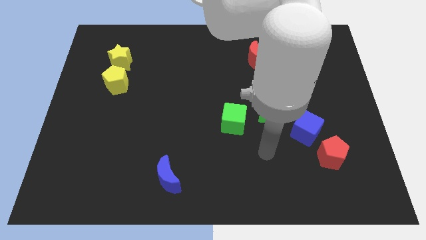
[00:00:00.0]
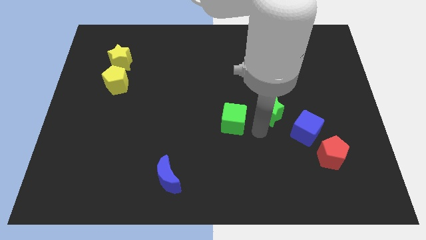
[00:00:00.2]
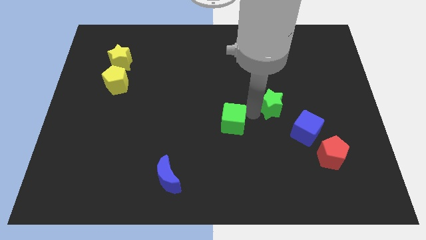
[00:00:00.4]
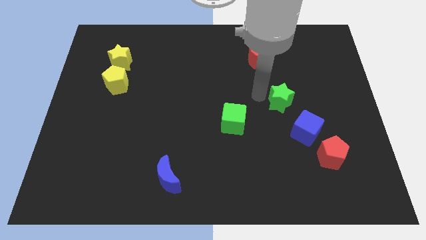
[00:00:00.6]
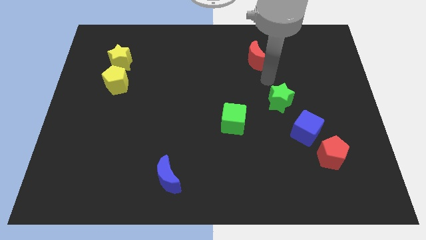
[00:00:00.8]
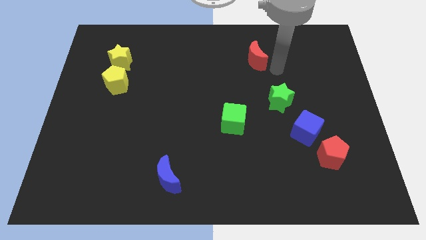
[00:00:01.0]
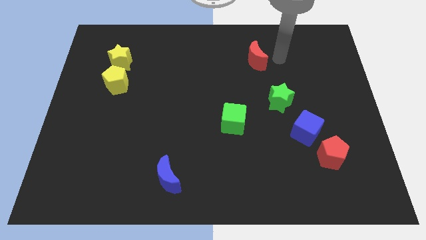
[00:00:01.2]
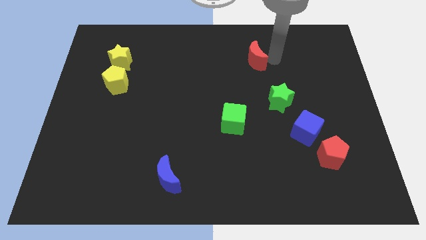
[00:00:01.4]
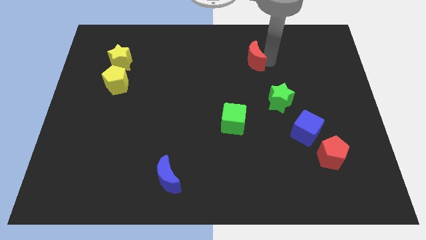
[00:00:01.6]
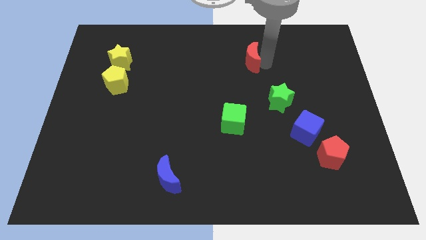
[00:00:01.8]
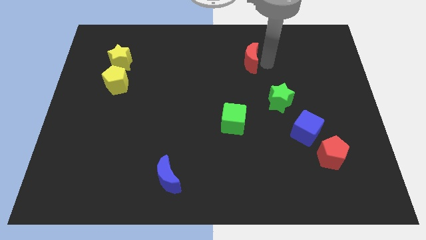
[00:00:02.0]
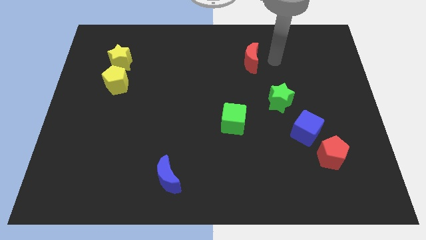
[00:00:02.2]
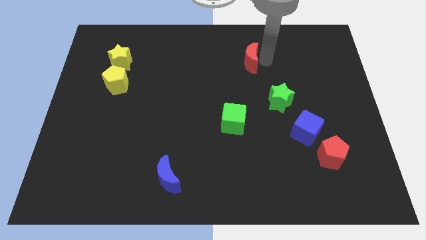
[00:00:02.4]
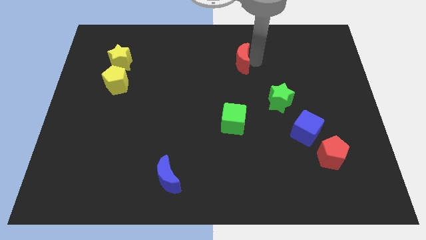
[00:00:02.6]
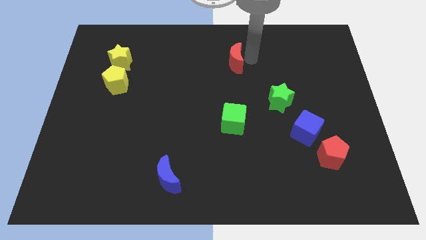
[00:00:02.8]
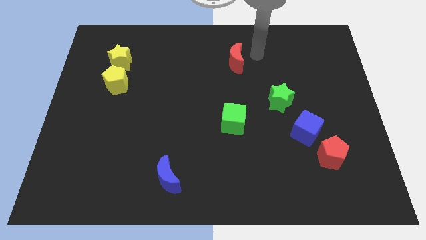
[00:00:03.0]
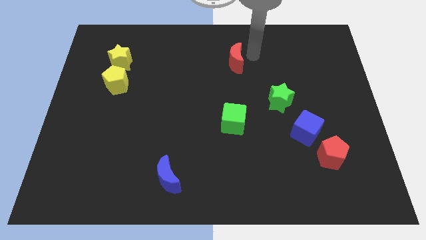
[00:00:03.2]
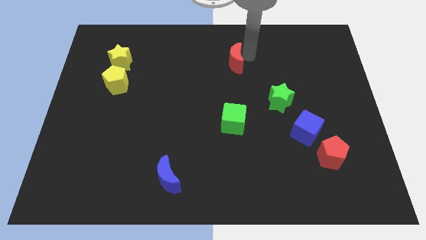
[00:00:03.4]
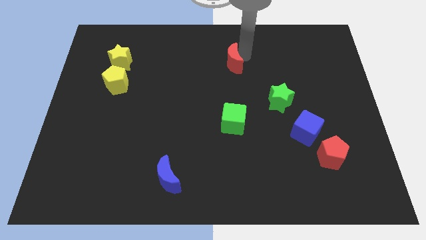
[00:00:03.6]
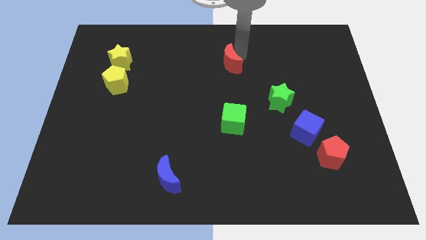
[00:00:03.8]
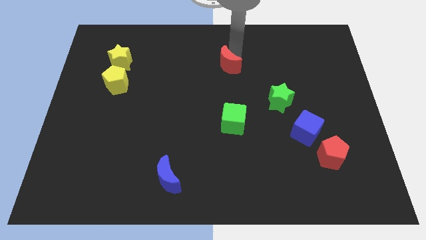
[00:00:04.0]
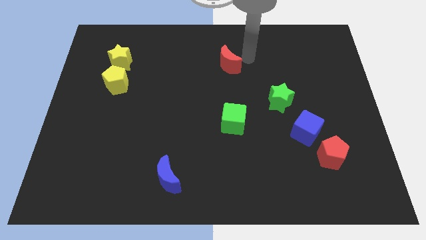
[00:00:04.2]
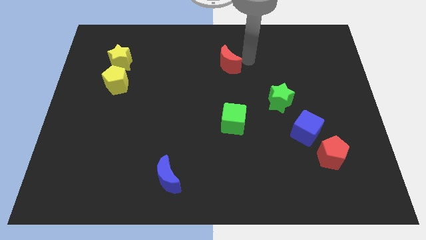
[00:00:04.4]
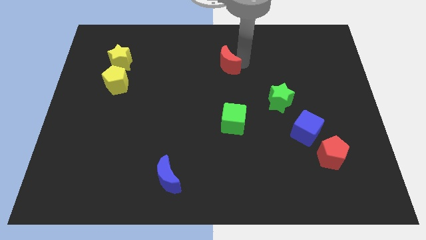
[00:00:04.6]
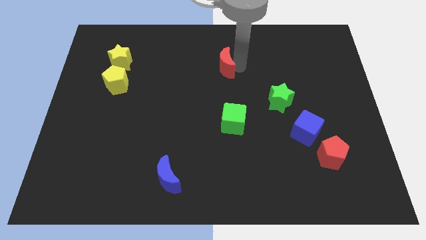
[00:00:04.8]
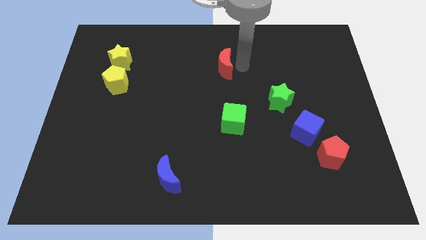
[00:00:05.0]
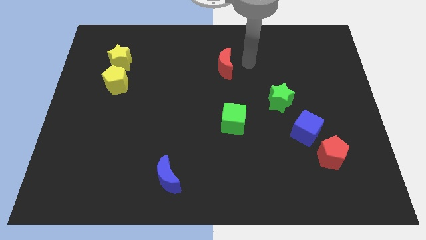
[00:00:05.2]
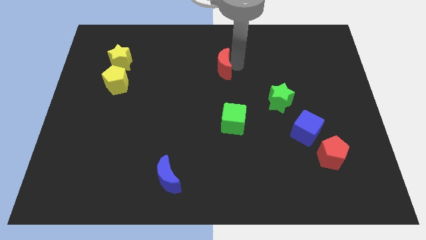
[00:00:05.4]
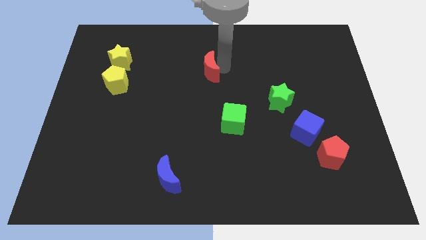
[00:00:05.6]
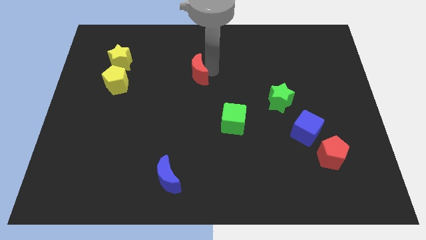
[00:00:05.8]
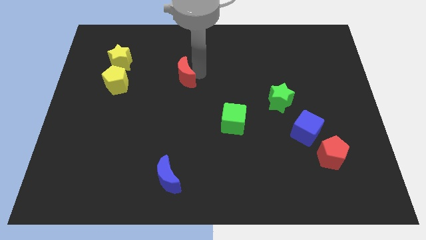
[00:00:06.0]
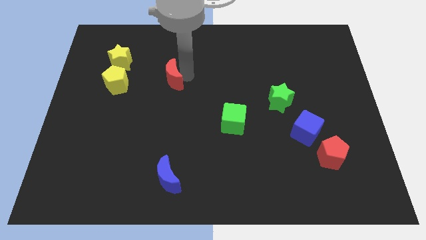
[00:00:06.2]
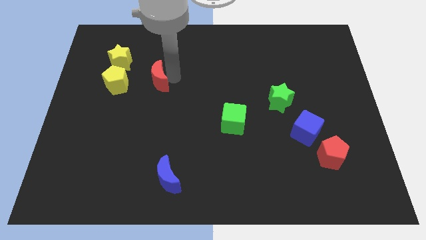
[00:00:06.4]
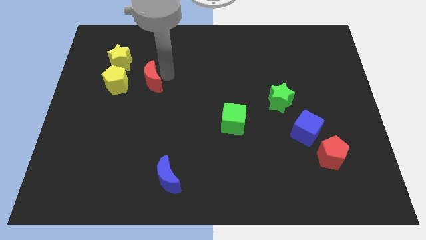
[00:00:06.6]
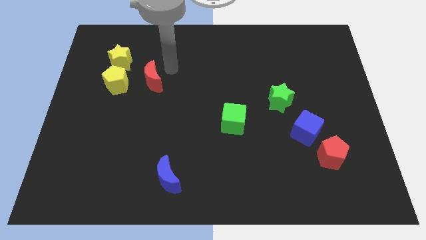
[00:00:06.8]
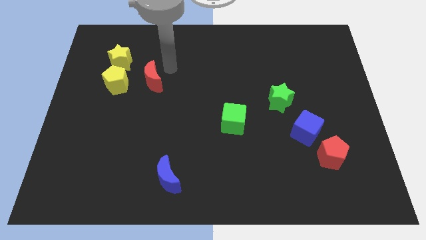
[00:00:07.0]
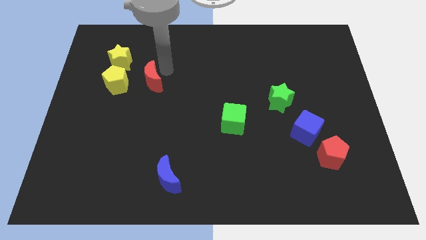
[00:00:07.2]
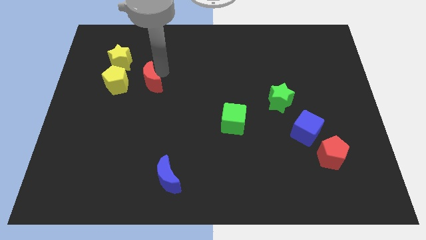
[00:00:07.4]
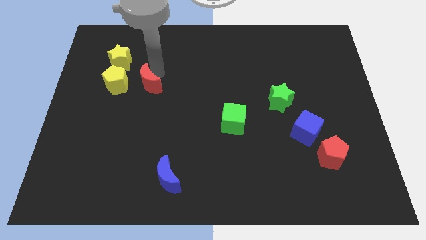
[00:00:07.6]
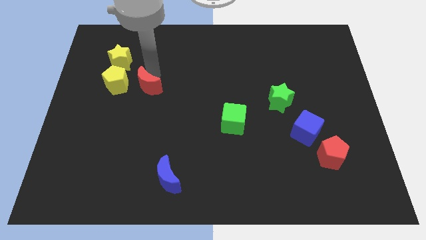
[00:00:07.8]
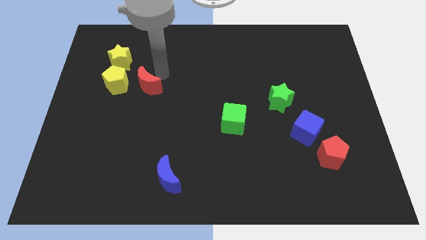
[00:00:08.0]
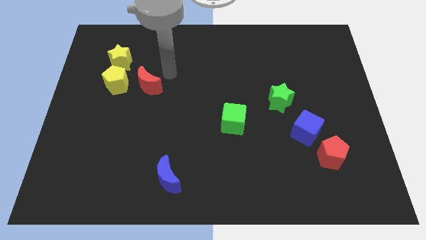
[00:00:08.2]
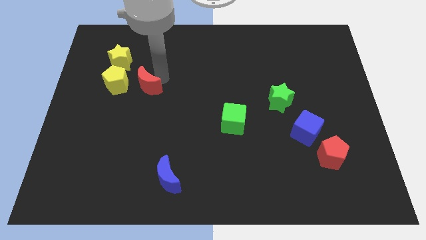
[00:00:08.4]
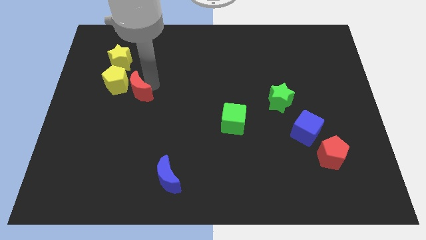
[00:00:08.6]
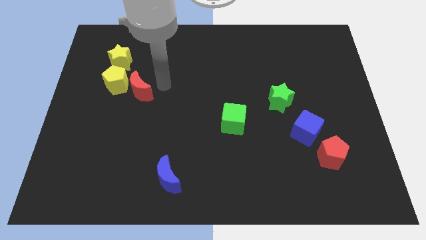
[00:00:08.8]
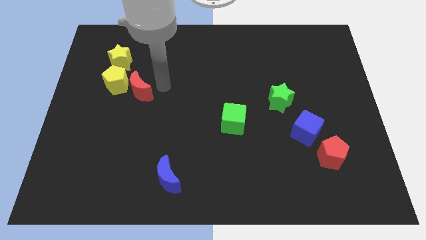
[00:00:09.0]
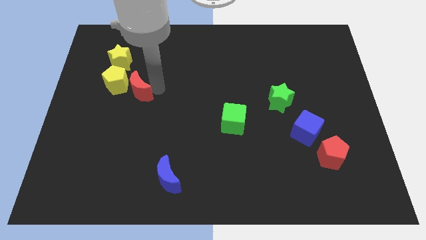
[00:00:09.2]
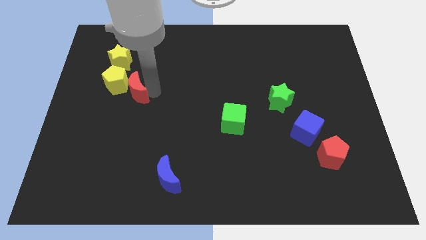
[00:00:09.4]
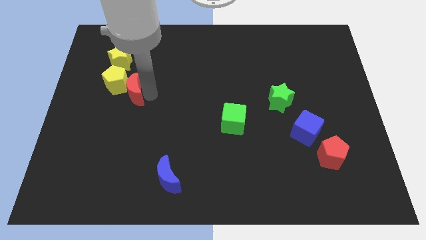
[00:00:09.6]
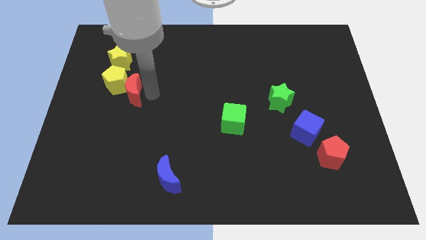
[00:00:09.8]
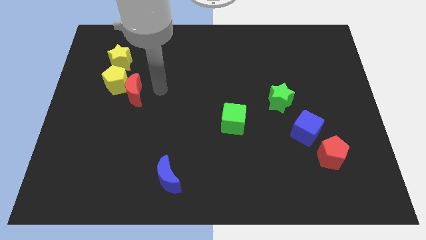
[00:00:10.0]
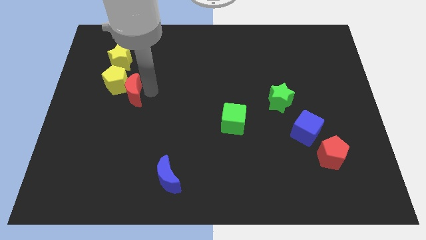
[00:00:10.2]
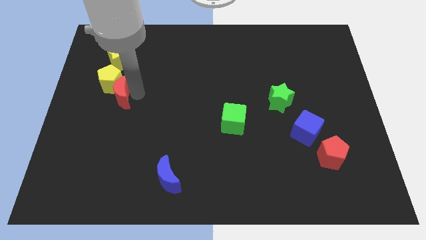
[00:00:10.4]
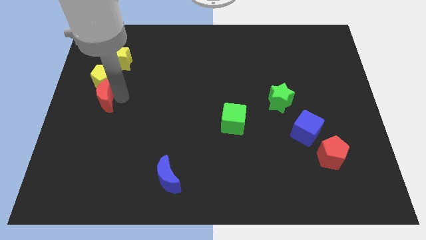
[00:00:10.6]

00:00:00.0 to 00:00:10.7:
push the red moon diagonally down and to the left of the yellow pentagon

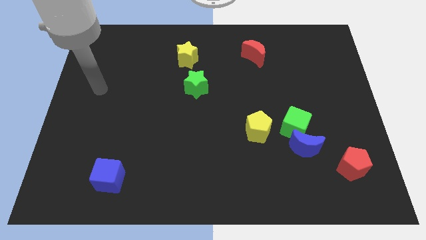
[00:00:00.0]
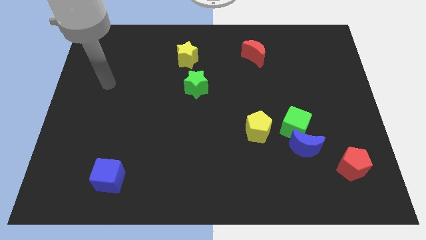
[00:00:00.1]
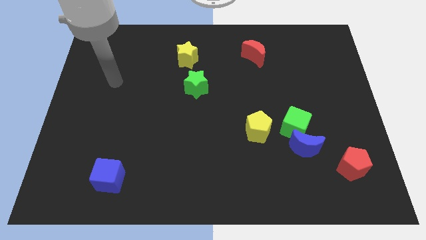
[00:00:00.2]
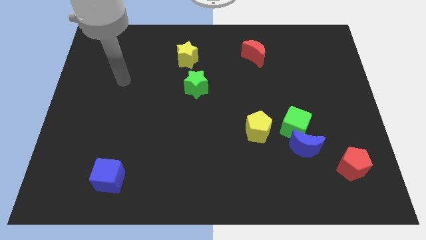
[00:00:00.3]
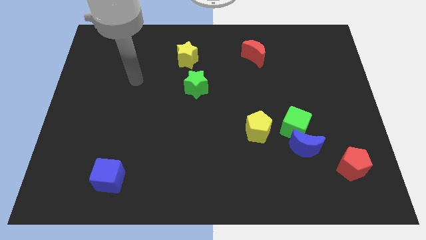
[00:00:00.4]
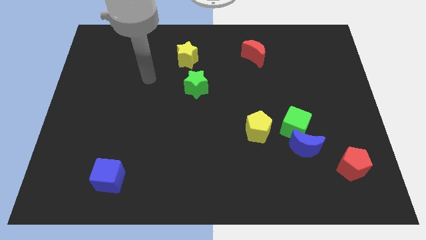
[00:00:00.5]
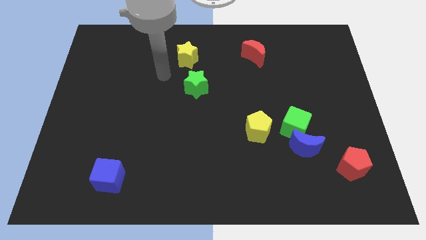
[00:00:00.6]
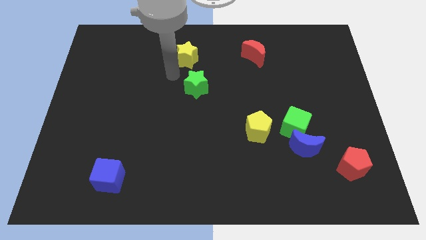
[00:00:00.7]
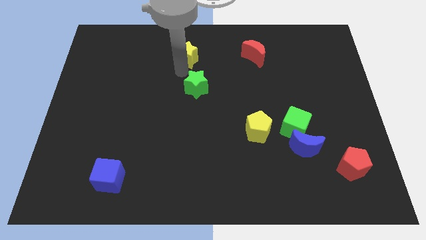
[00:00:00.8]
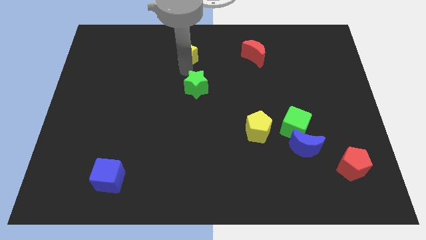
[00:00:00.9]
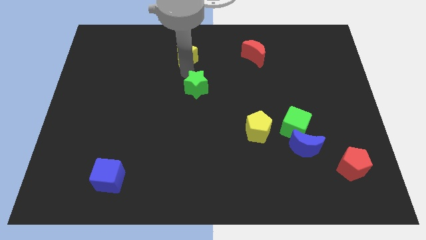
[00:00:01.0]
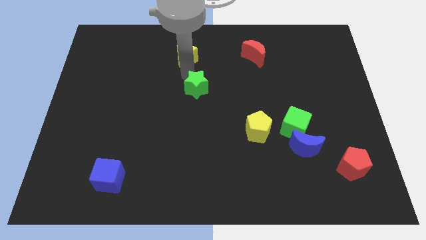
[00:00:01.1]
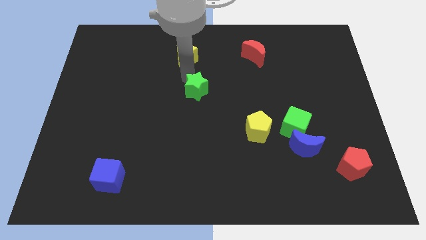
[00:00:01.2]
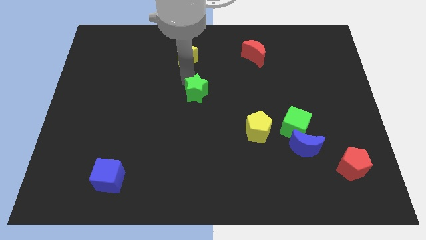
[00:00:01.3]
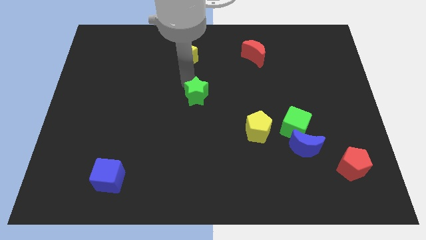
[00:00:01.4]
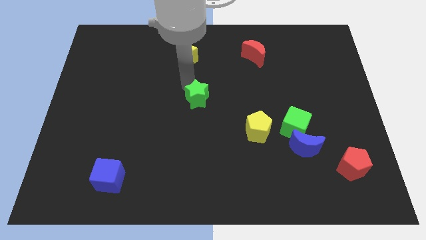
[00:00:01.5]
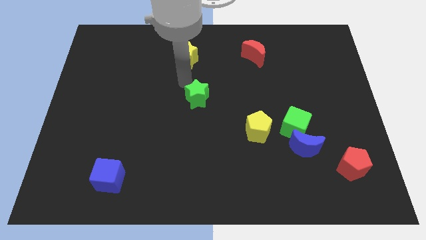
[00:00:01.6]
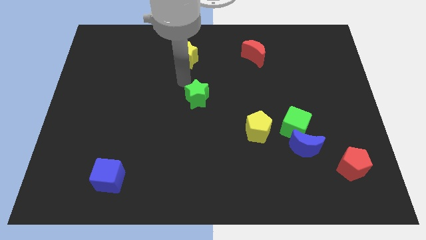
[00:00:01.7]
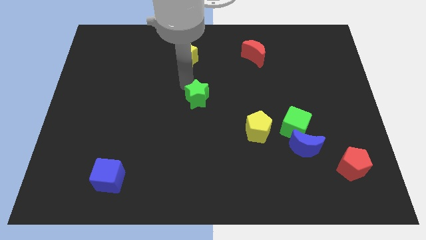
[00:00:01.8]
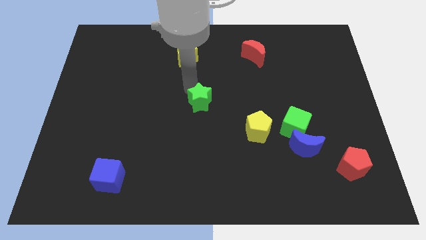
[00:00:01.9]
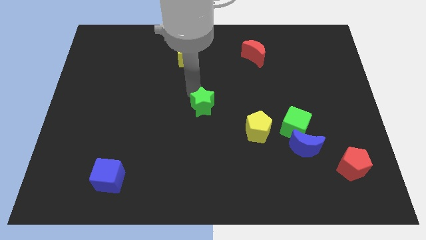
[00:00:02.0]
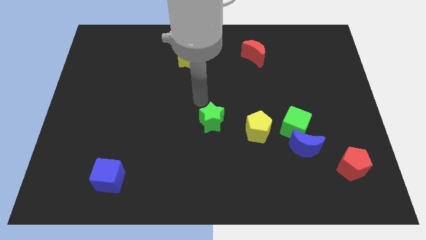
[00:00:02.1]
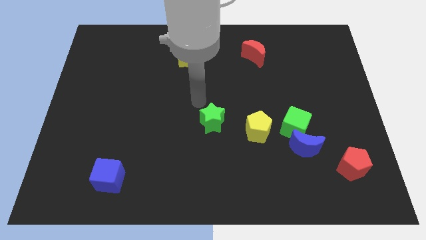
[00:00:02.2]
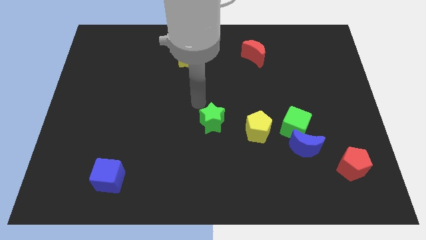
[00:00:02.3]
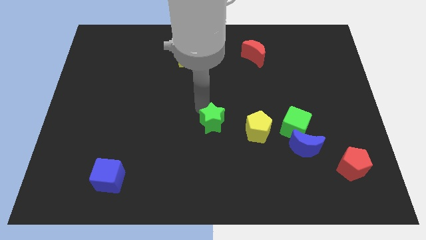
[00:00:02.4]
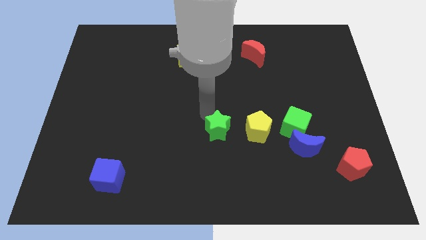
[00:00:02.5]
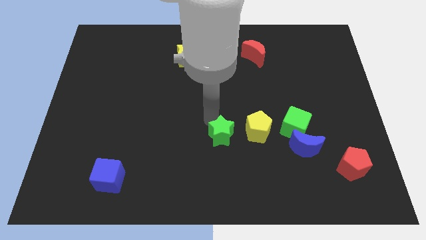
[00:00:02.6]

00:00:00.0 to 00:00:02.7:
move the green star to the bottom left side of the yellow pentagon
